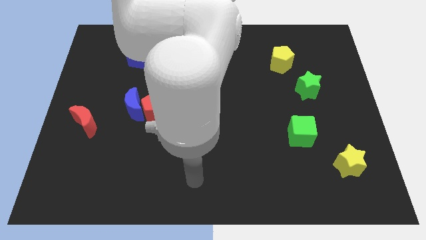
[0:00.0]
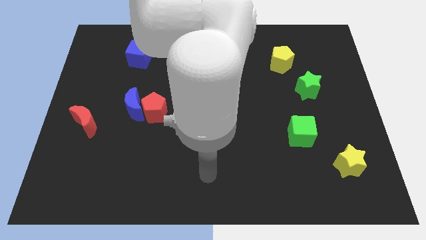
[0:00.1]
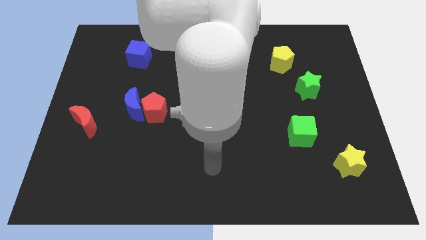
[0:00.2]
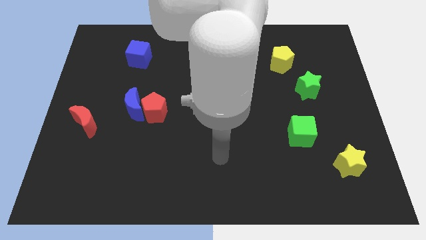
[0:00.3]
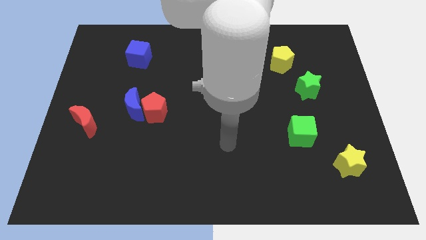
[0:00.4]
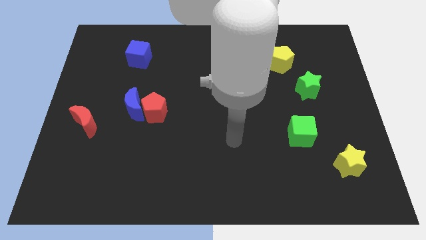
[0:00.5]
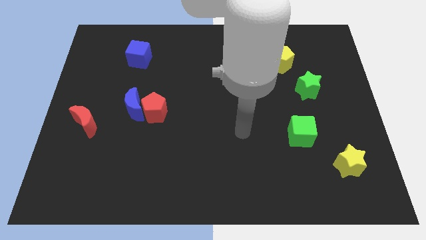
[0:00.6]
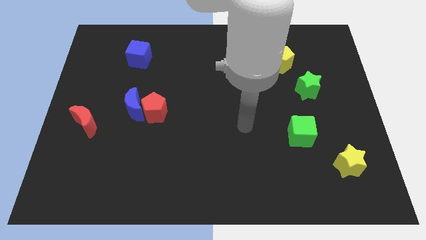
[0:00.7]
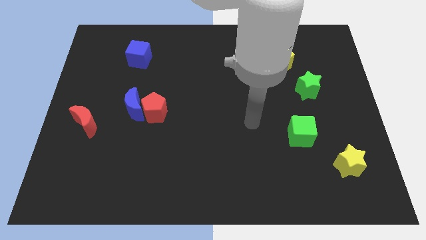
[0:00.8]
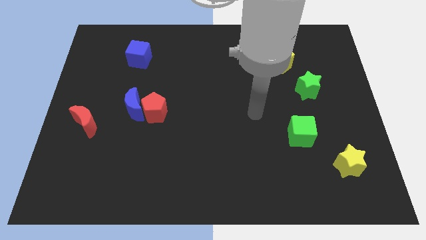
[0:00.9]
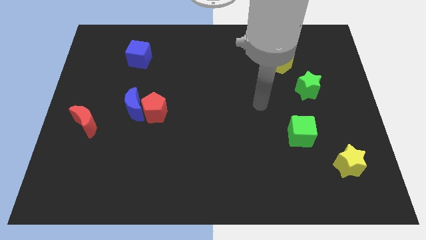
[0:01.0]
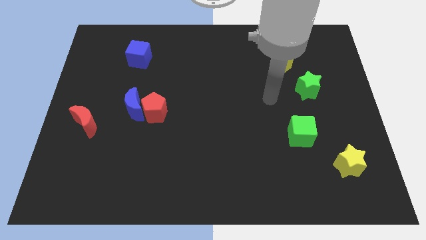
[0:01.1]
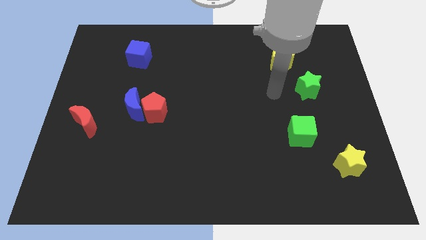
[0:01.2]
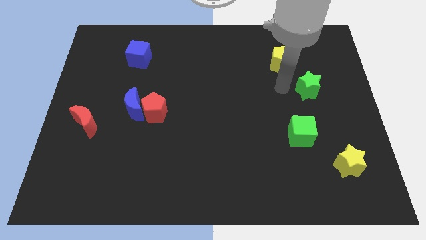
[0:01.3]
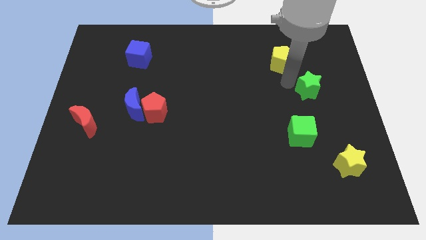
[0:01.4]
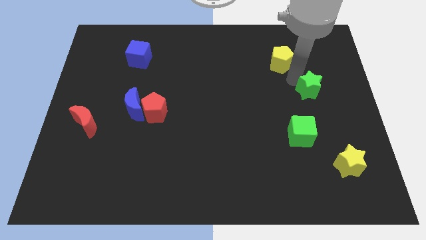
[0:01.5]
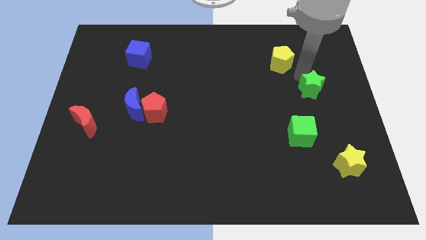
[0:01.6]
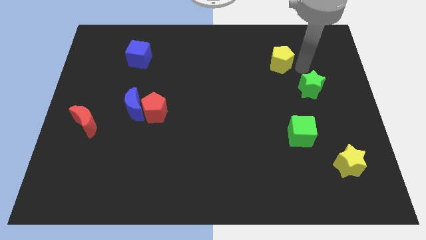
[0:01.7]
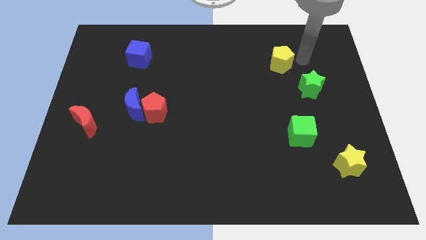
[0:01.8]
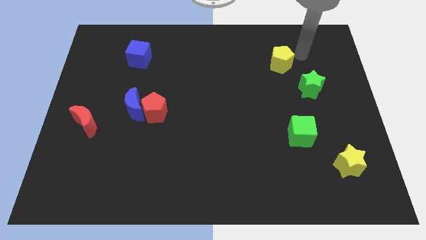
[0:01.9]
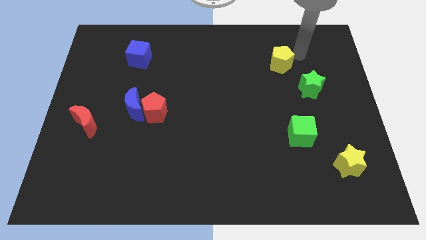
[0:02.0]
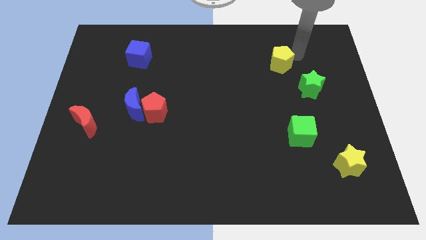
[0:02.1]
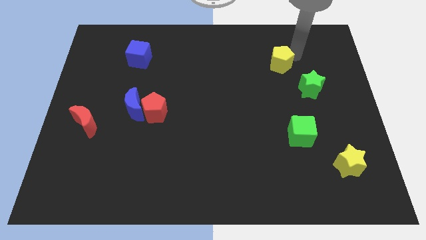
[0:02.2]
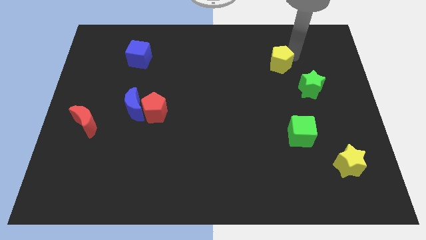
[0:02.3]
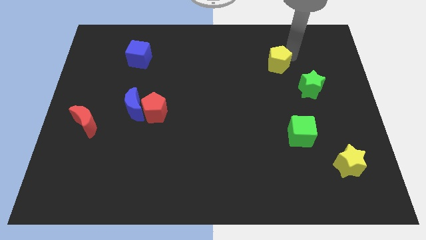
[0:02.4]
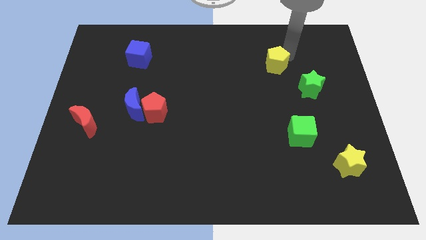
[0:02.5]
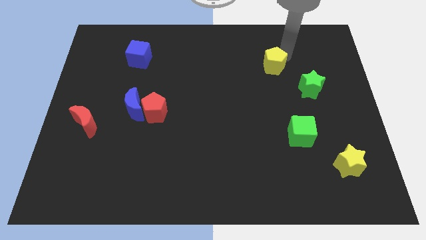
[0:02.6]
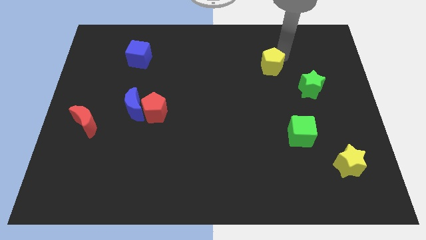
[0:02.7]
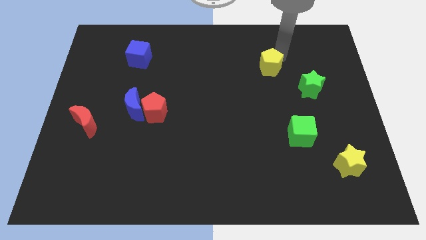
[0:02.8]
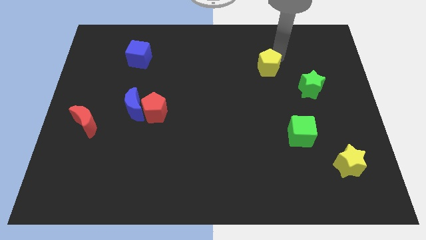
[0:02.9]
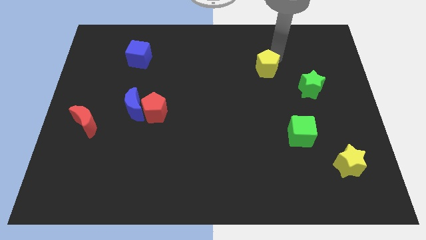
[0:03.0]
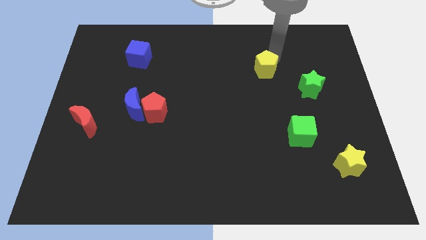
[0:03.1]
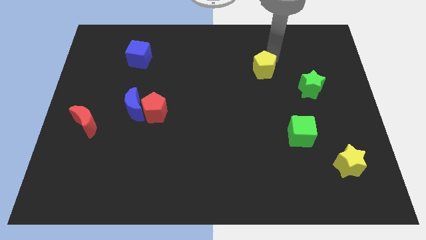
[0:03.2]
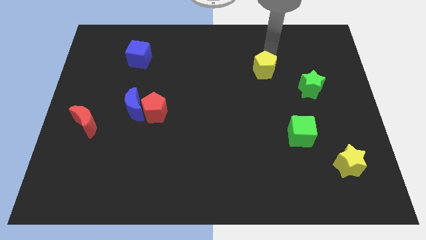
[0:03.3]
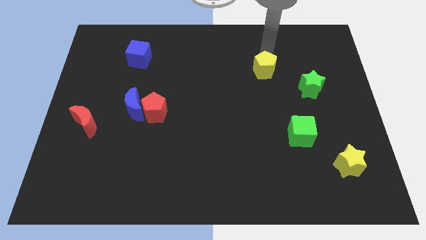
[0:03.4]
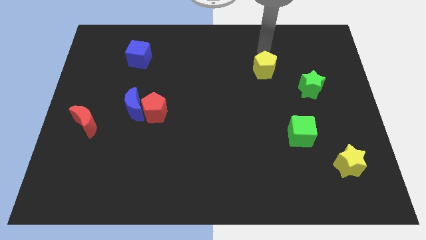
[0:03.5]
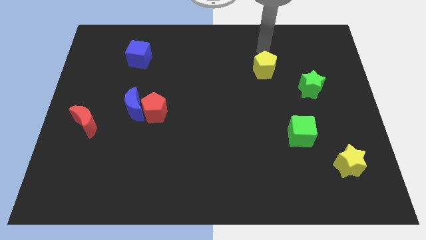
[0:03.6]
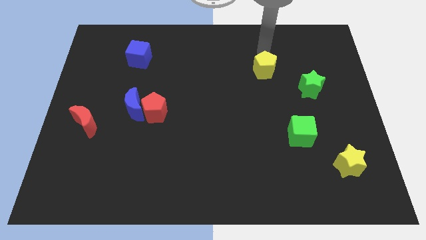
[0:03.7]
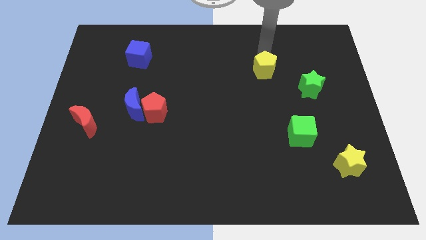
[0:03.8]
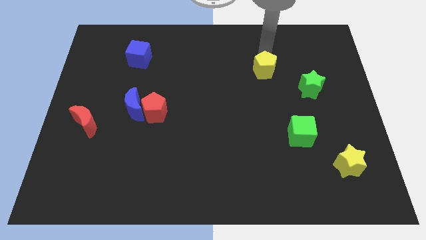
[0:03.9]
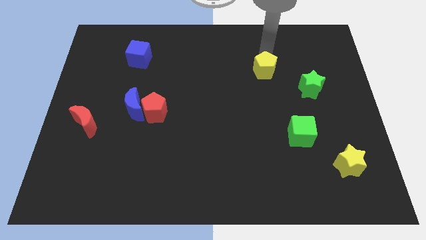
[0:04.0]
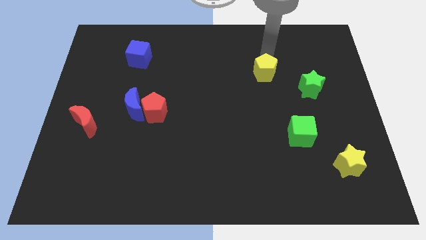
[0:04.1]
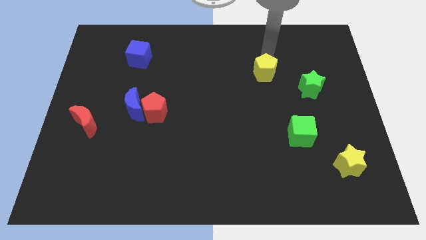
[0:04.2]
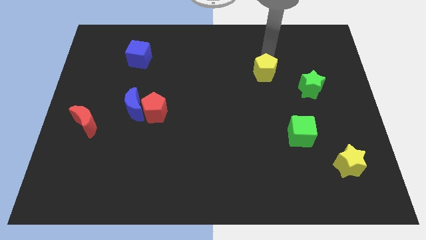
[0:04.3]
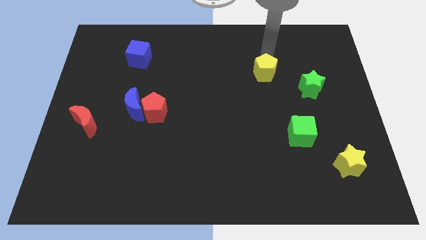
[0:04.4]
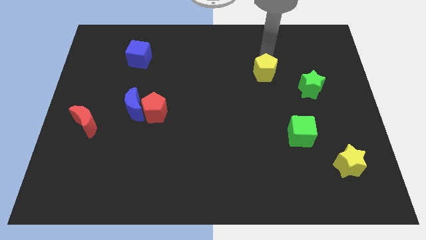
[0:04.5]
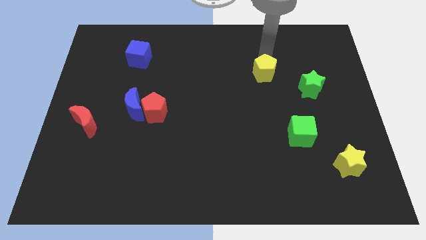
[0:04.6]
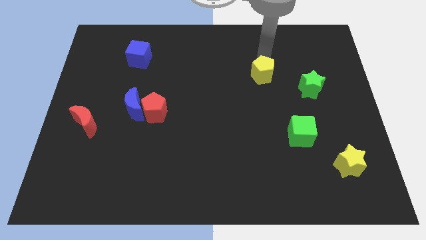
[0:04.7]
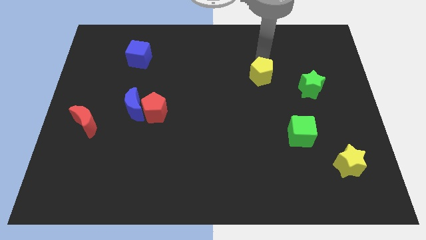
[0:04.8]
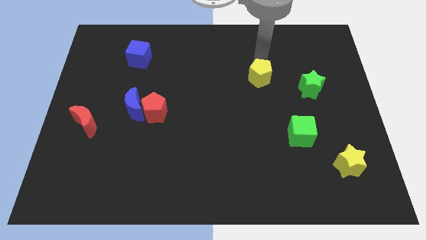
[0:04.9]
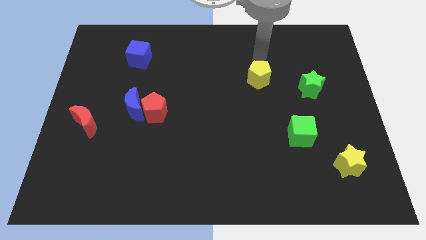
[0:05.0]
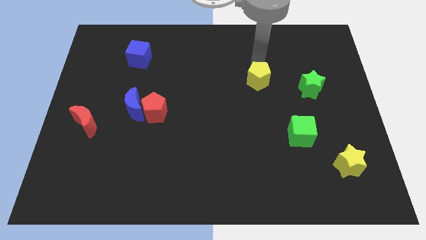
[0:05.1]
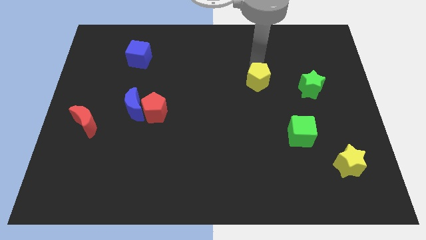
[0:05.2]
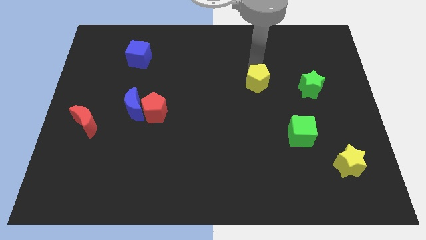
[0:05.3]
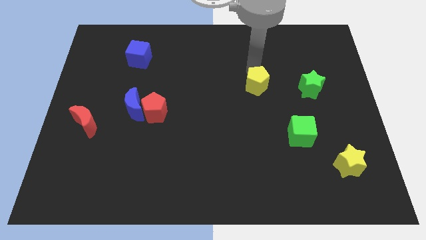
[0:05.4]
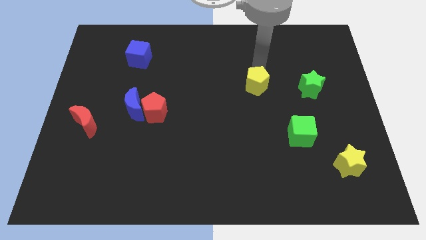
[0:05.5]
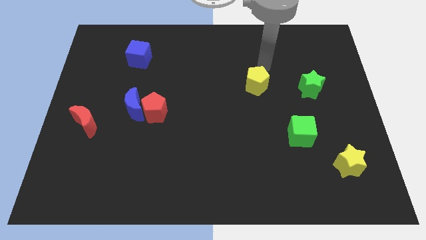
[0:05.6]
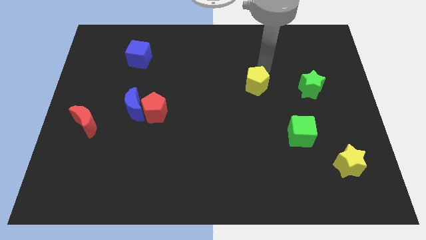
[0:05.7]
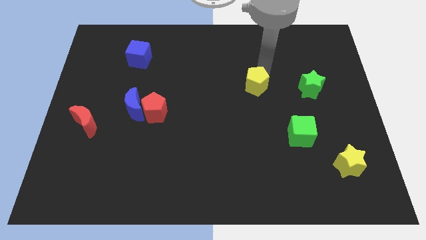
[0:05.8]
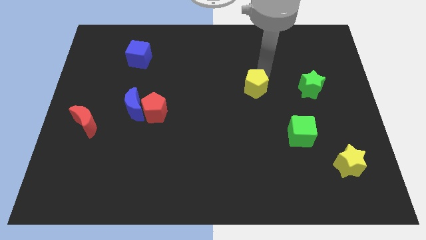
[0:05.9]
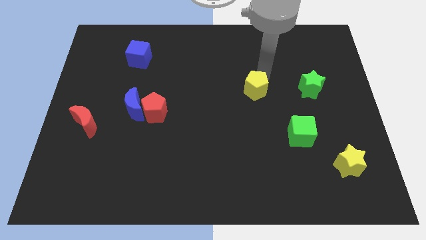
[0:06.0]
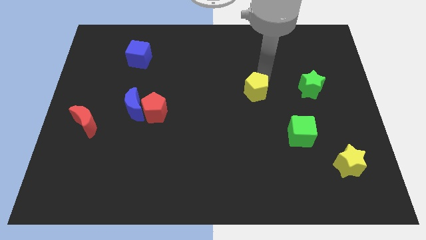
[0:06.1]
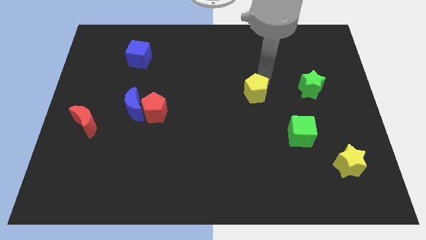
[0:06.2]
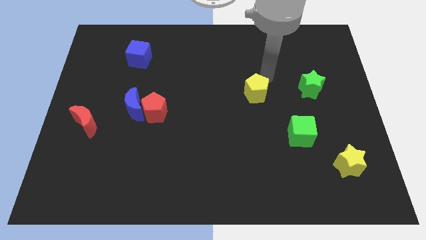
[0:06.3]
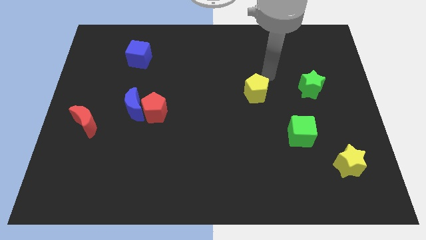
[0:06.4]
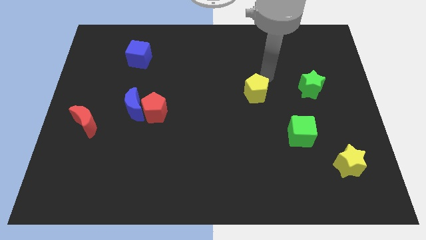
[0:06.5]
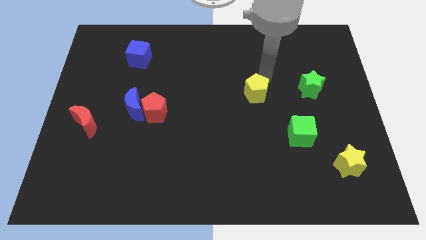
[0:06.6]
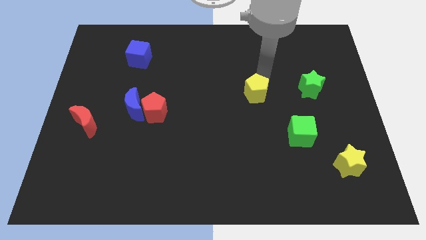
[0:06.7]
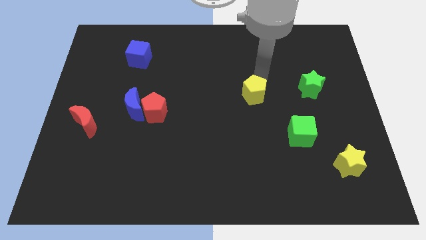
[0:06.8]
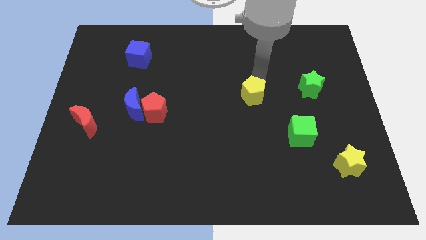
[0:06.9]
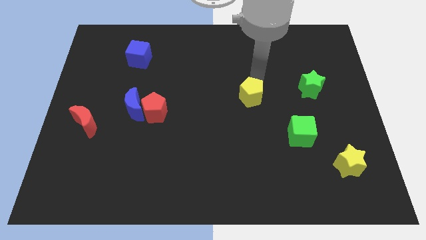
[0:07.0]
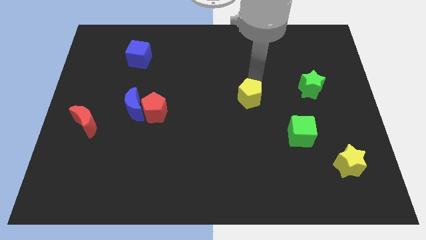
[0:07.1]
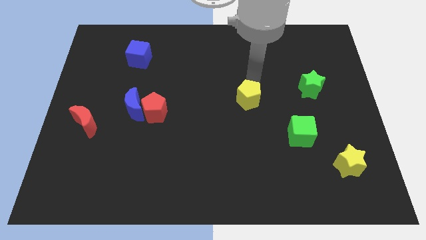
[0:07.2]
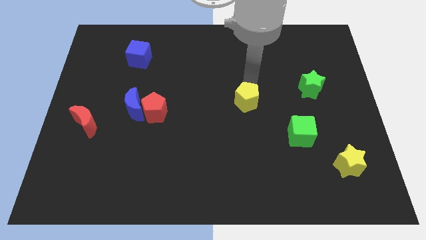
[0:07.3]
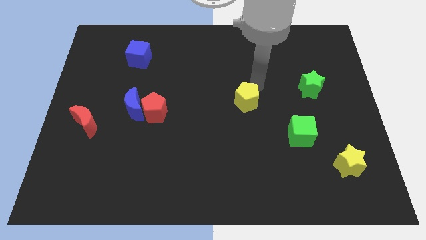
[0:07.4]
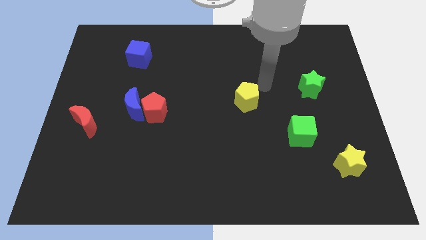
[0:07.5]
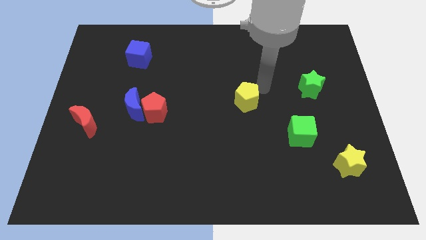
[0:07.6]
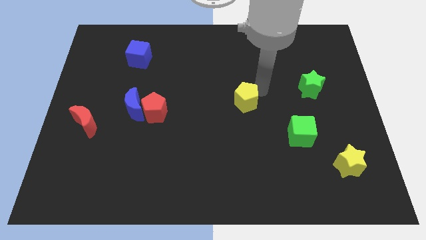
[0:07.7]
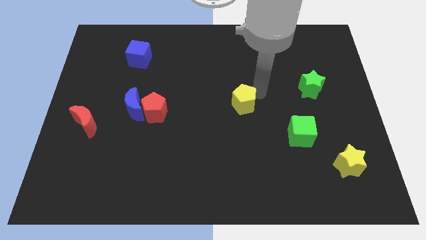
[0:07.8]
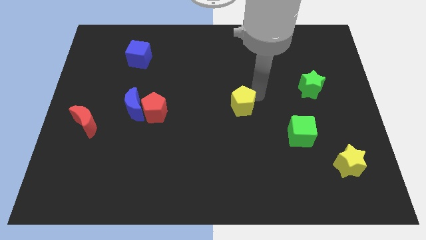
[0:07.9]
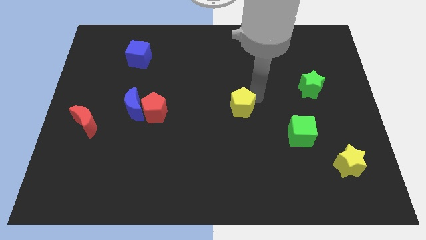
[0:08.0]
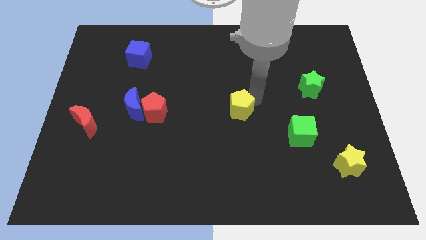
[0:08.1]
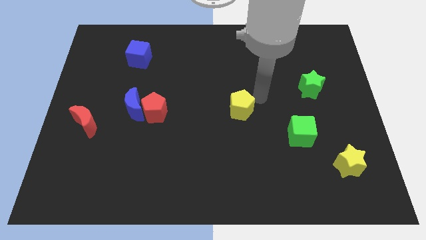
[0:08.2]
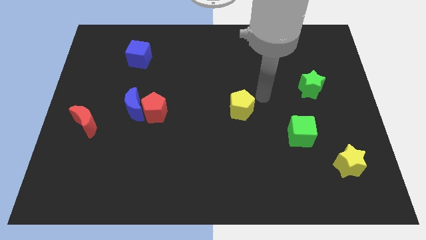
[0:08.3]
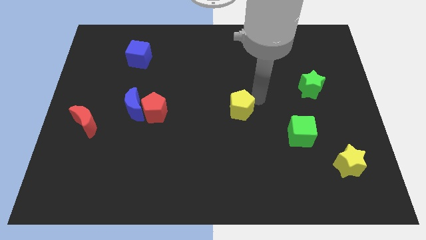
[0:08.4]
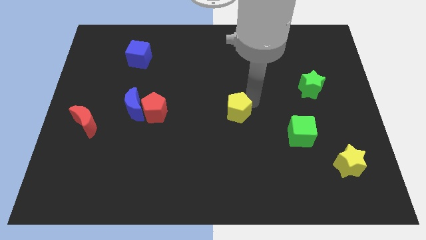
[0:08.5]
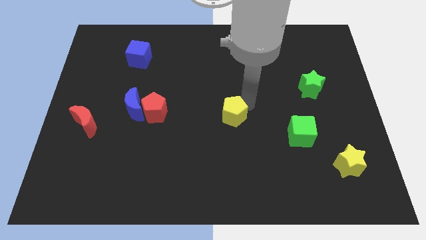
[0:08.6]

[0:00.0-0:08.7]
move the yellow pentagon down and left diagonally
